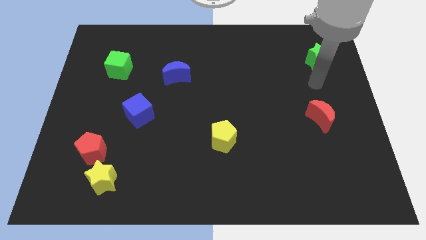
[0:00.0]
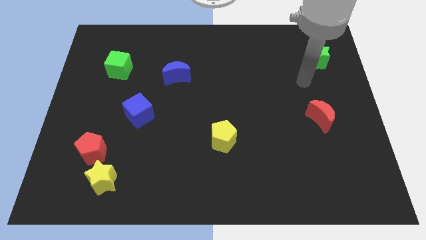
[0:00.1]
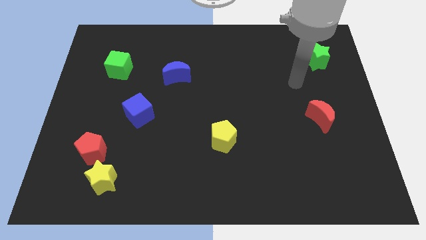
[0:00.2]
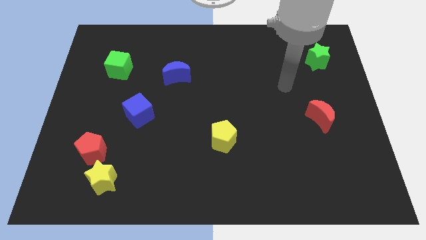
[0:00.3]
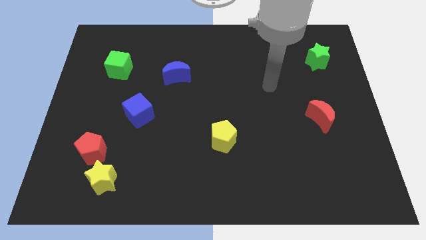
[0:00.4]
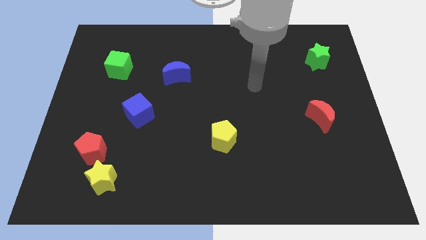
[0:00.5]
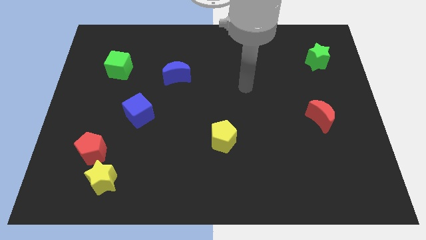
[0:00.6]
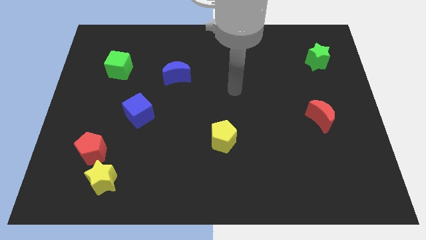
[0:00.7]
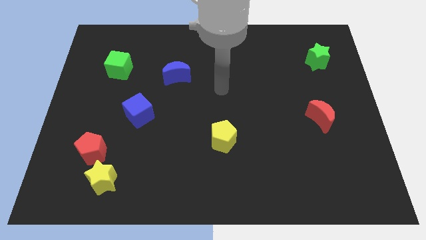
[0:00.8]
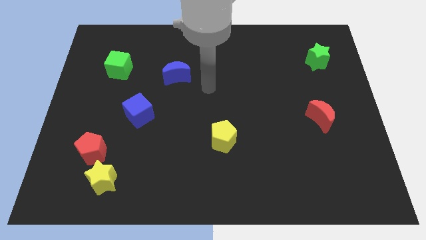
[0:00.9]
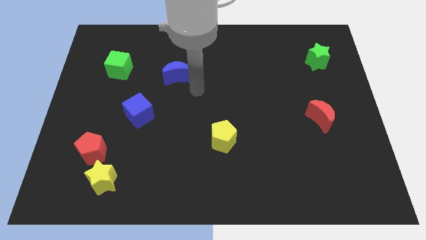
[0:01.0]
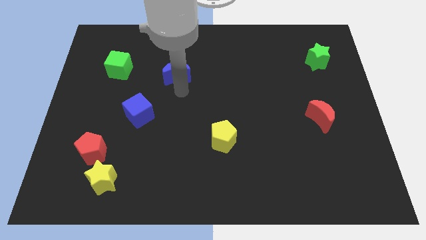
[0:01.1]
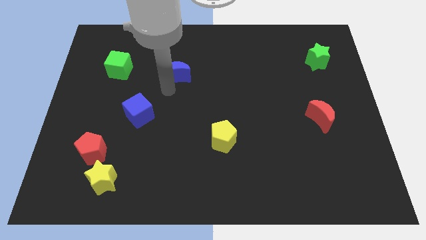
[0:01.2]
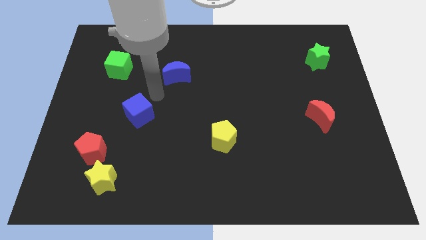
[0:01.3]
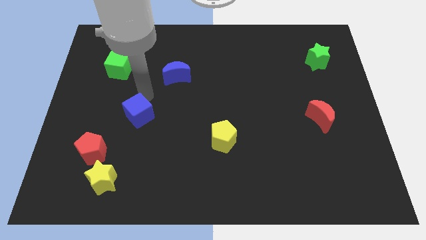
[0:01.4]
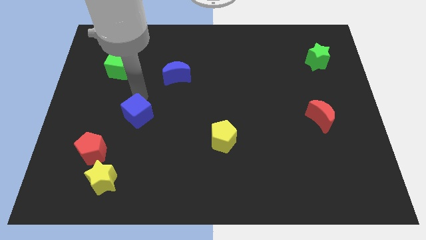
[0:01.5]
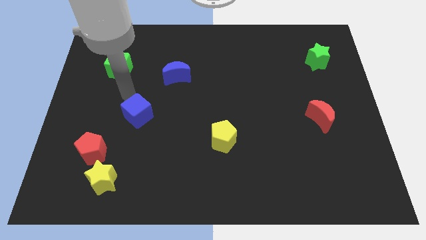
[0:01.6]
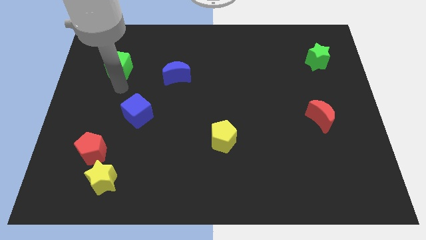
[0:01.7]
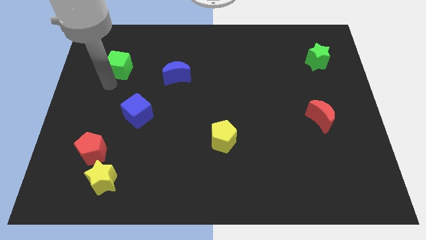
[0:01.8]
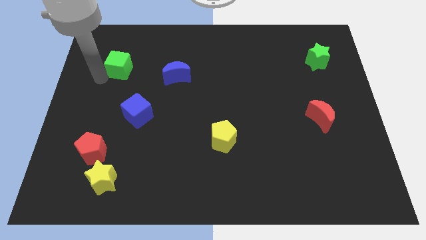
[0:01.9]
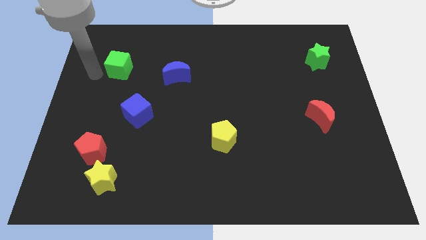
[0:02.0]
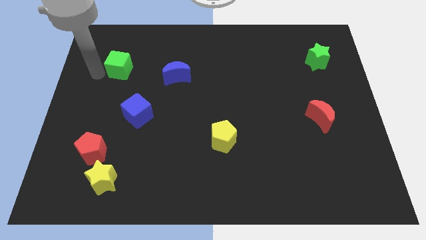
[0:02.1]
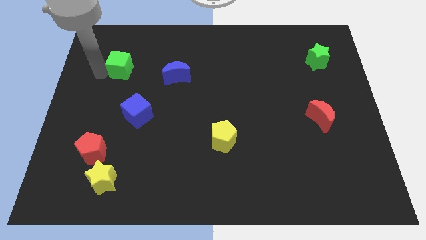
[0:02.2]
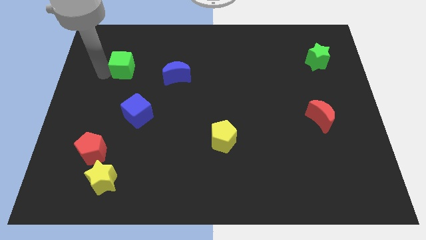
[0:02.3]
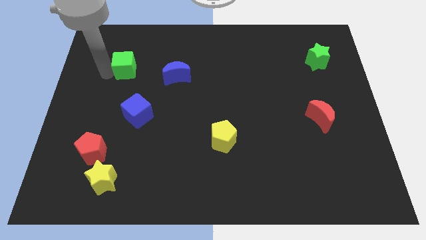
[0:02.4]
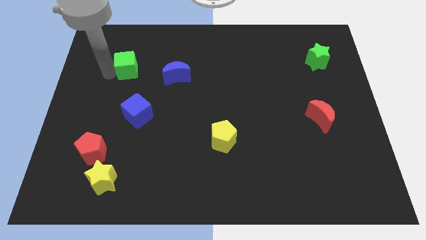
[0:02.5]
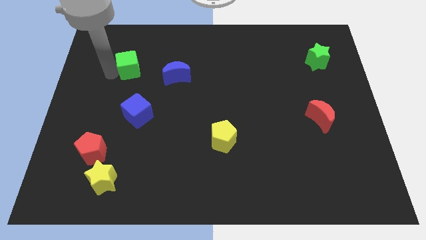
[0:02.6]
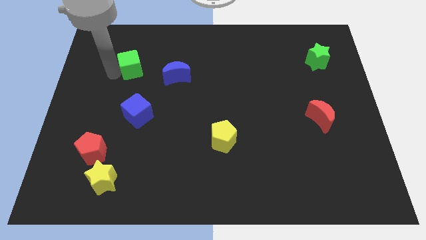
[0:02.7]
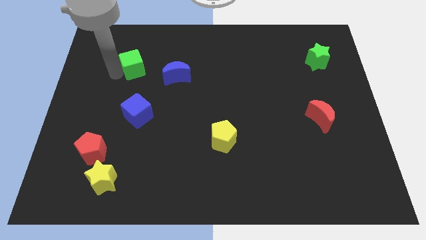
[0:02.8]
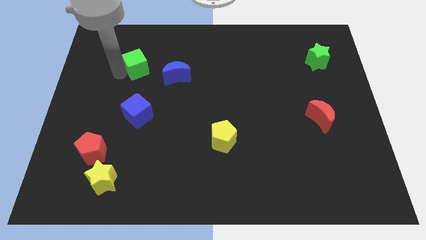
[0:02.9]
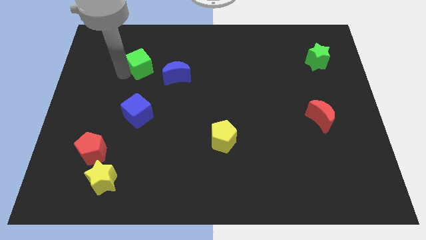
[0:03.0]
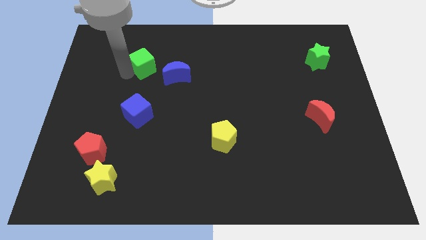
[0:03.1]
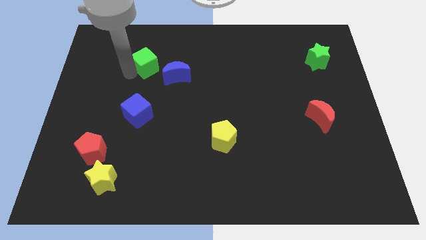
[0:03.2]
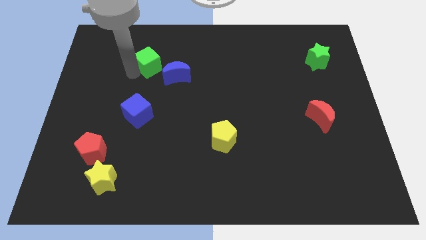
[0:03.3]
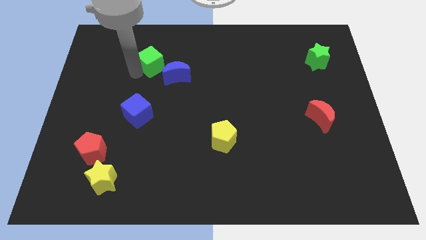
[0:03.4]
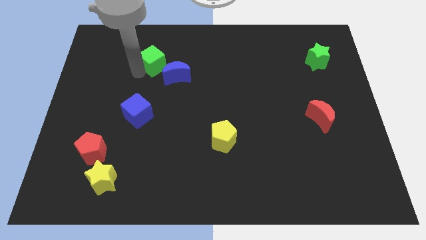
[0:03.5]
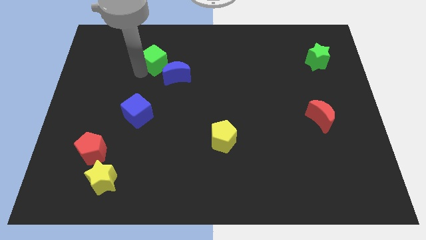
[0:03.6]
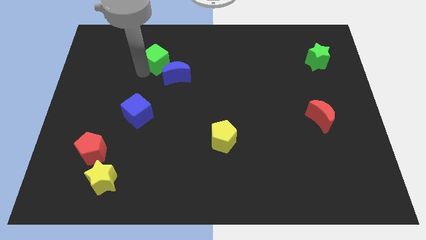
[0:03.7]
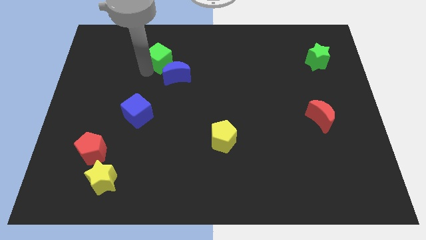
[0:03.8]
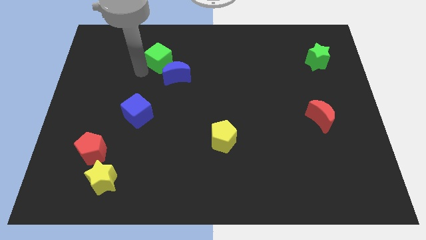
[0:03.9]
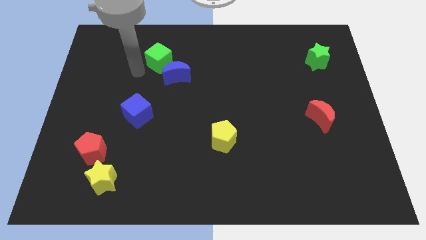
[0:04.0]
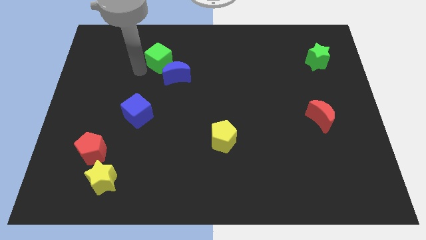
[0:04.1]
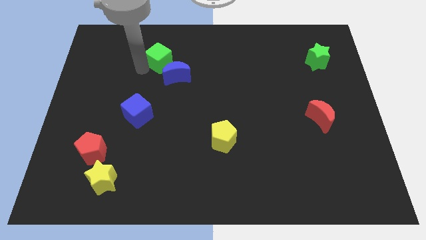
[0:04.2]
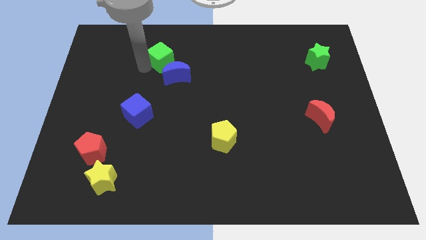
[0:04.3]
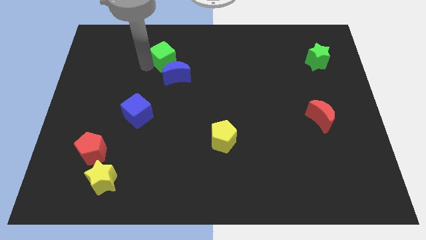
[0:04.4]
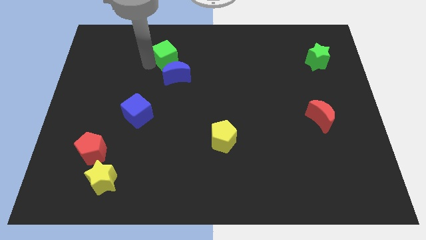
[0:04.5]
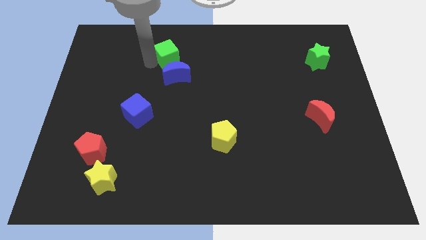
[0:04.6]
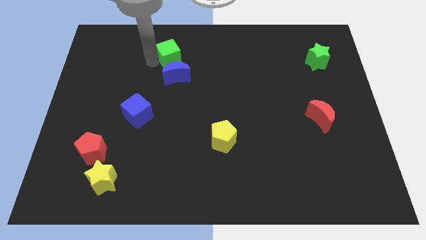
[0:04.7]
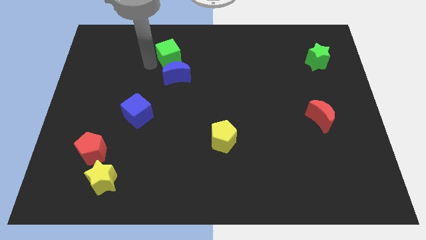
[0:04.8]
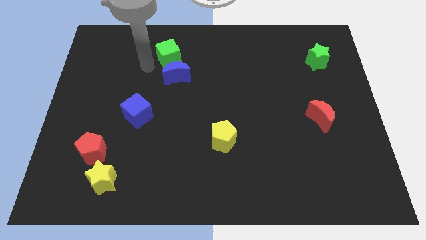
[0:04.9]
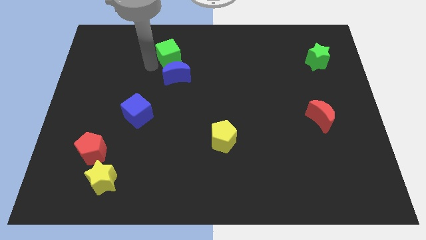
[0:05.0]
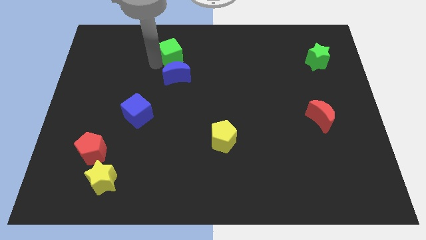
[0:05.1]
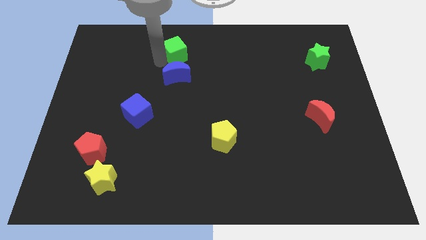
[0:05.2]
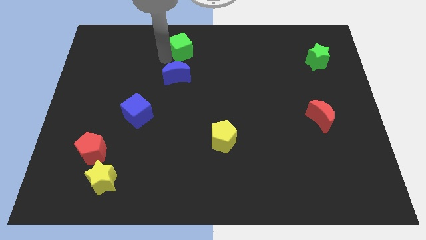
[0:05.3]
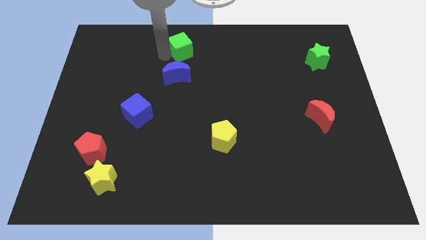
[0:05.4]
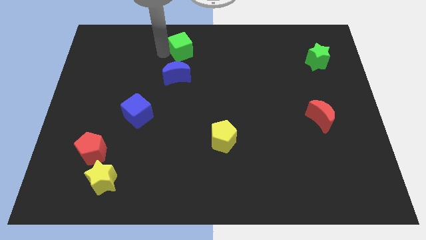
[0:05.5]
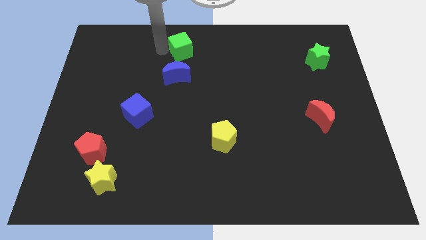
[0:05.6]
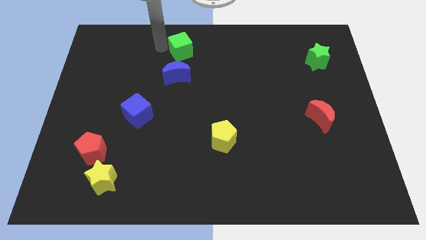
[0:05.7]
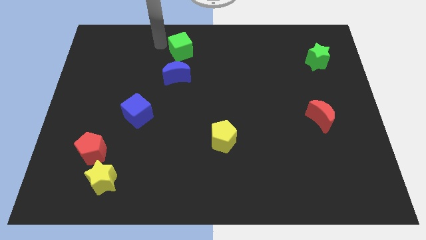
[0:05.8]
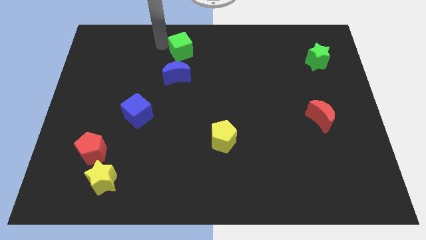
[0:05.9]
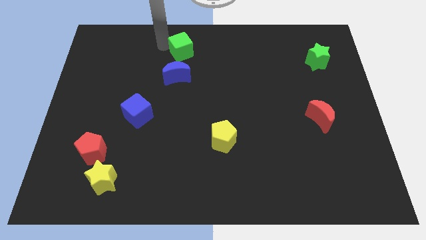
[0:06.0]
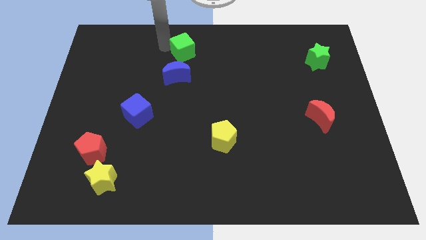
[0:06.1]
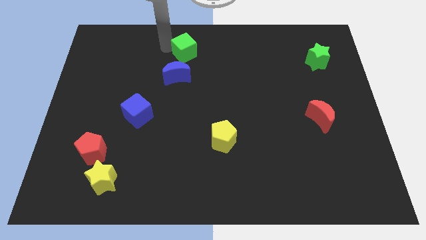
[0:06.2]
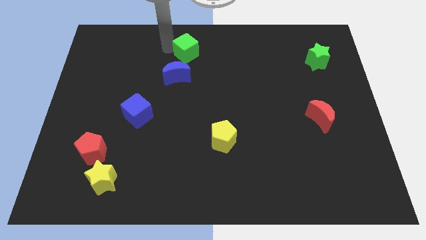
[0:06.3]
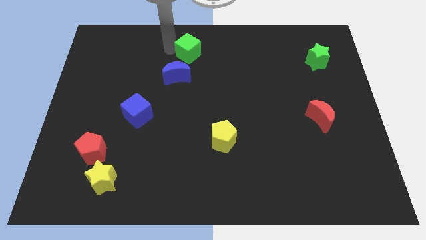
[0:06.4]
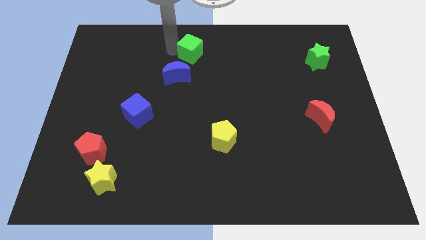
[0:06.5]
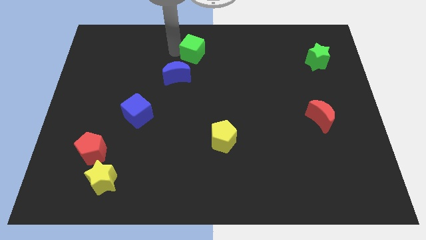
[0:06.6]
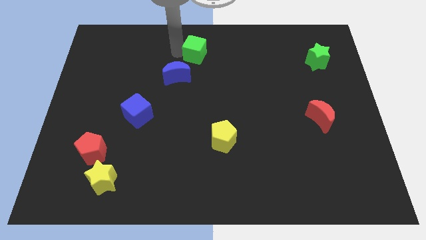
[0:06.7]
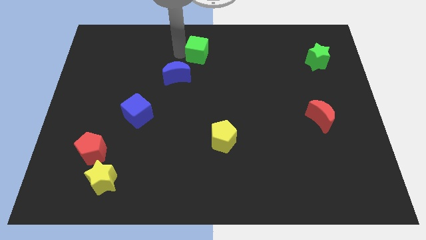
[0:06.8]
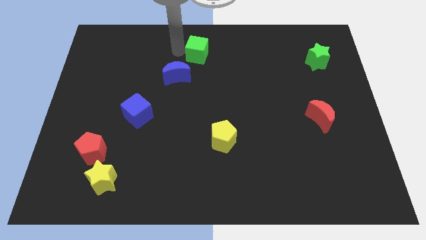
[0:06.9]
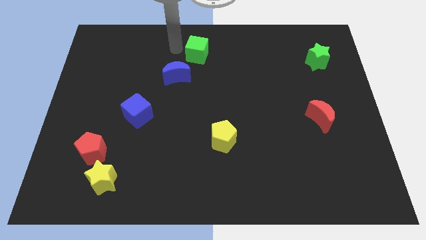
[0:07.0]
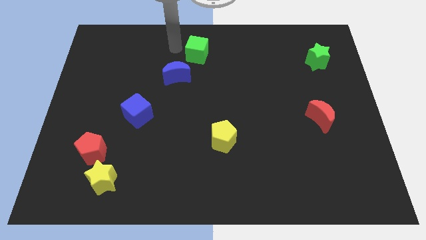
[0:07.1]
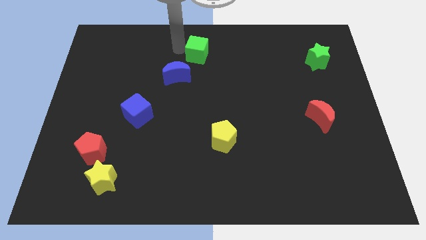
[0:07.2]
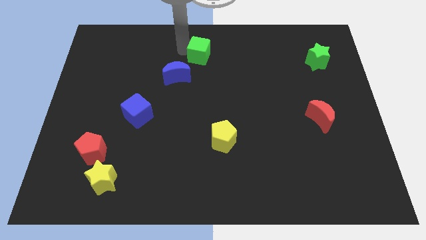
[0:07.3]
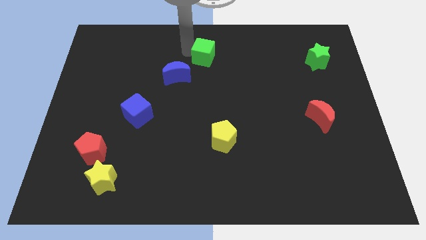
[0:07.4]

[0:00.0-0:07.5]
push the green cube right

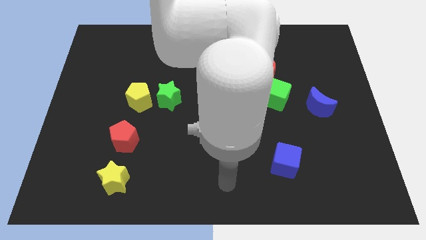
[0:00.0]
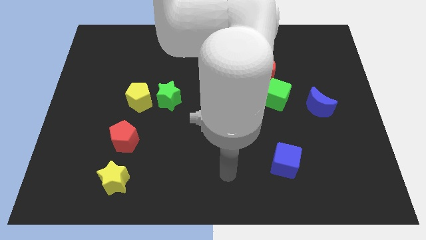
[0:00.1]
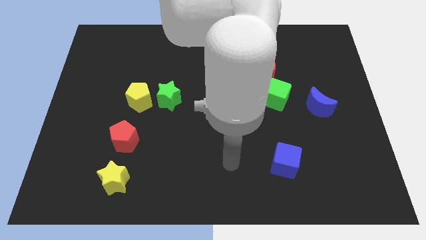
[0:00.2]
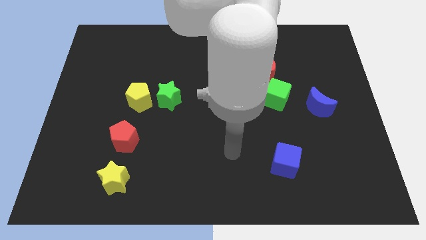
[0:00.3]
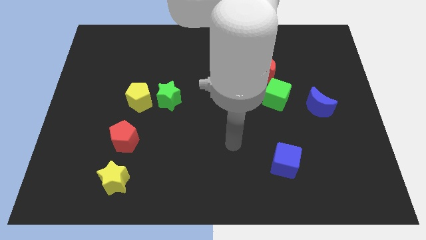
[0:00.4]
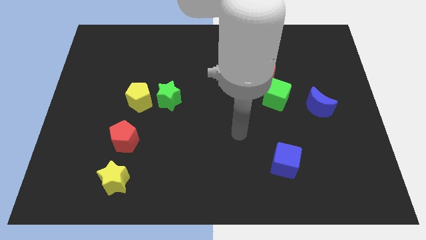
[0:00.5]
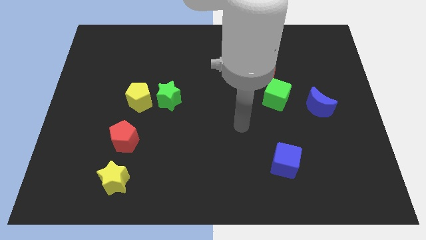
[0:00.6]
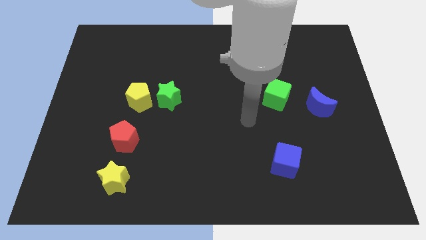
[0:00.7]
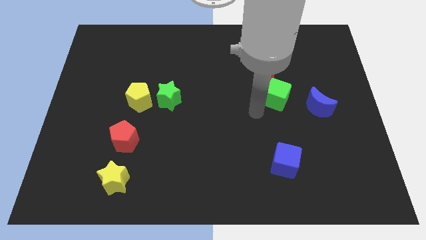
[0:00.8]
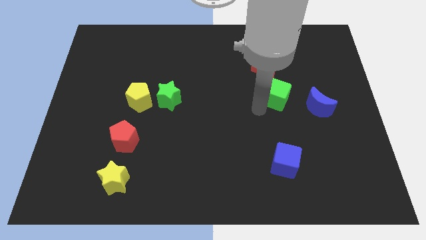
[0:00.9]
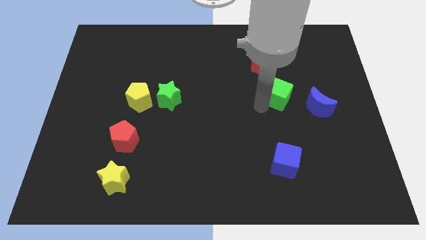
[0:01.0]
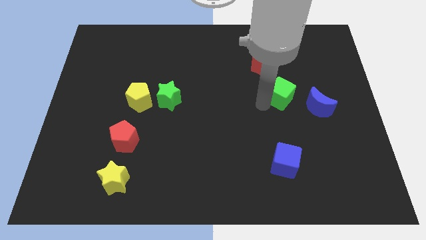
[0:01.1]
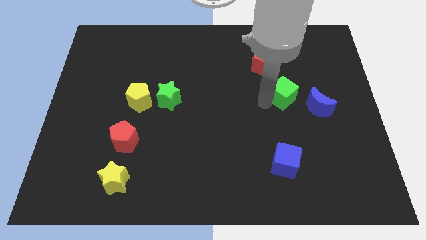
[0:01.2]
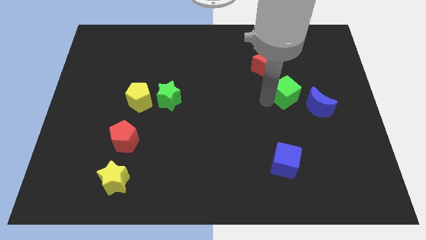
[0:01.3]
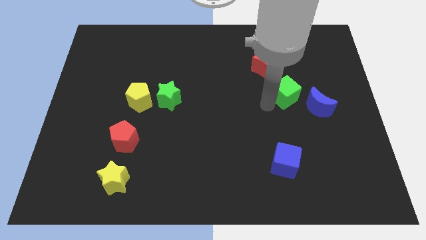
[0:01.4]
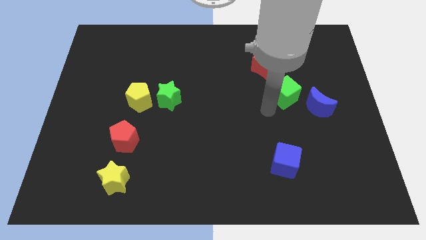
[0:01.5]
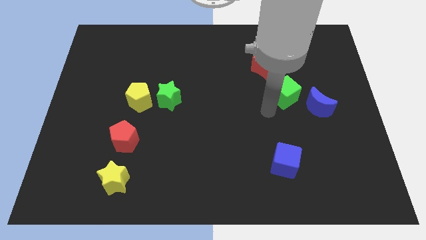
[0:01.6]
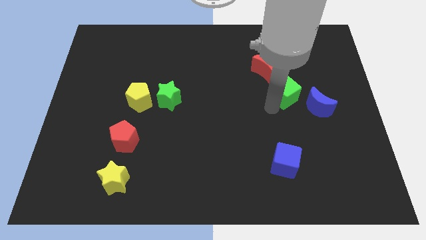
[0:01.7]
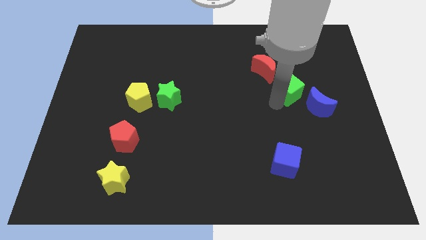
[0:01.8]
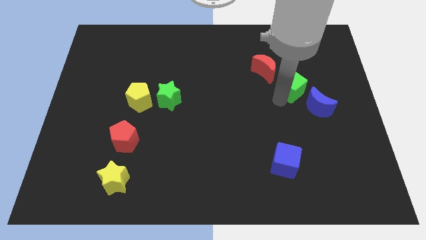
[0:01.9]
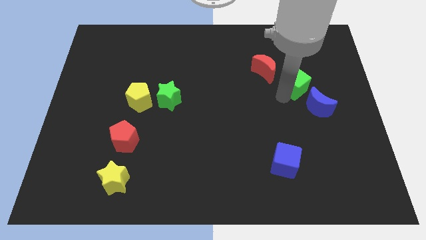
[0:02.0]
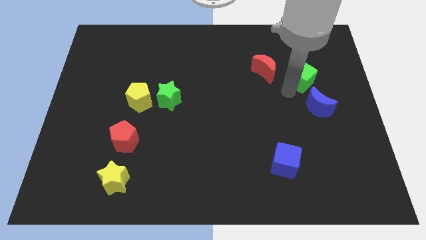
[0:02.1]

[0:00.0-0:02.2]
slide the green cube upwards and right diagonally slightly
